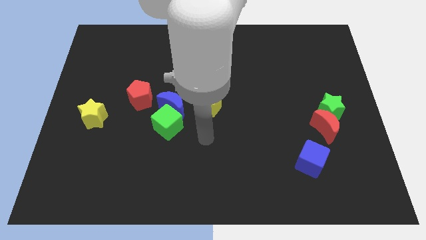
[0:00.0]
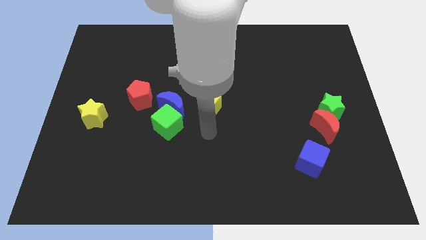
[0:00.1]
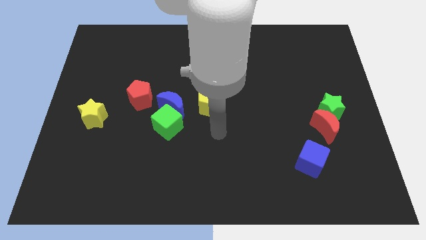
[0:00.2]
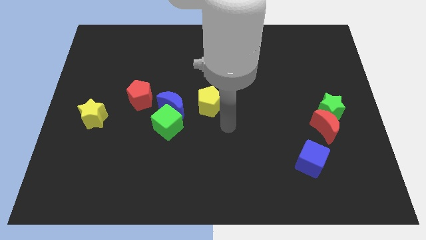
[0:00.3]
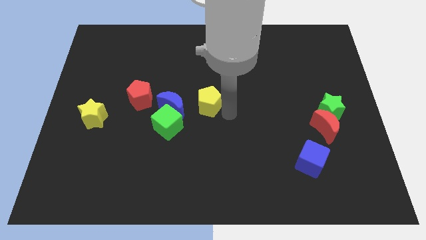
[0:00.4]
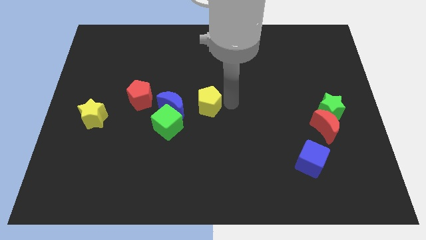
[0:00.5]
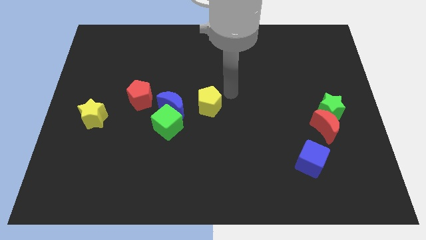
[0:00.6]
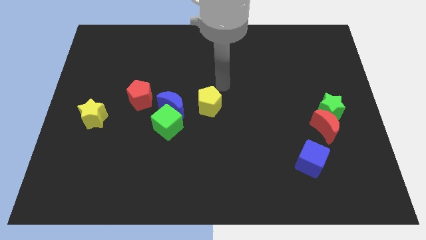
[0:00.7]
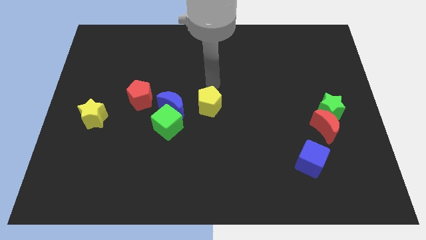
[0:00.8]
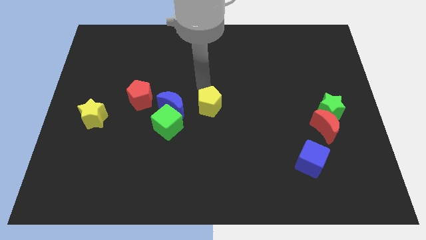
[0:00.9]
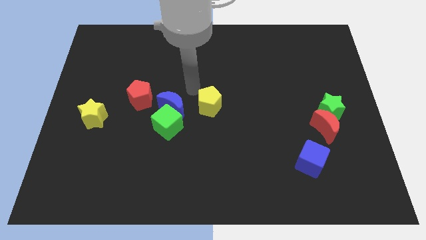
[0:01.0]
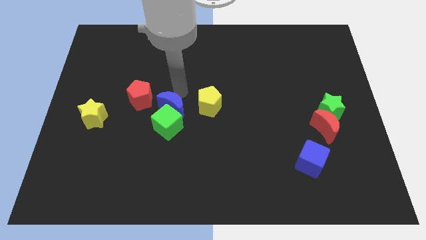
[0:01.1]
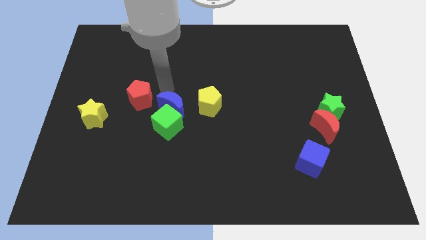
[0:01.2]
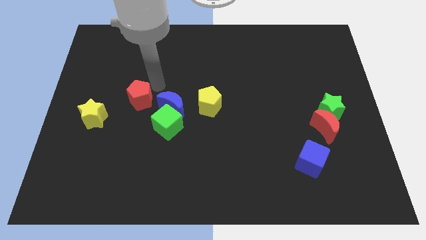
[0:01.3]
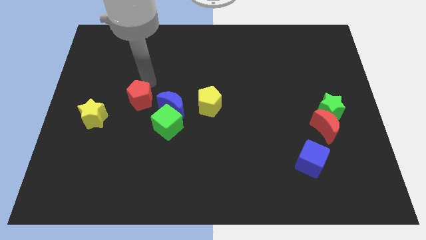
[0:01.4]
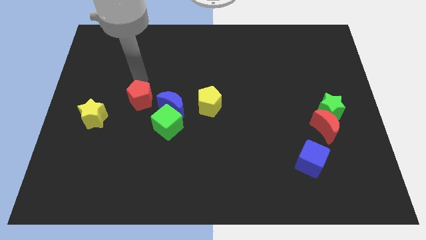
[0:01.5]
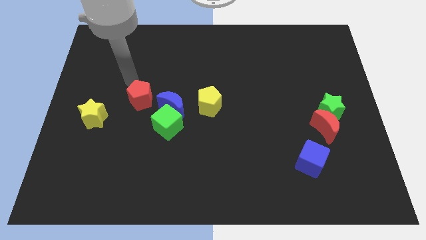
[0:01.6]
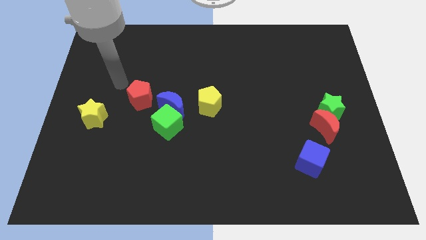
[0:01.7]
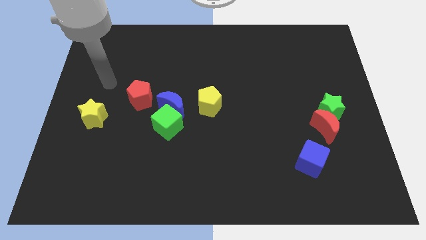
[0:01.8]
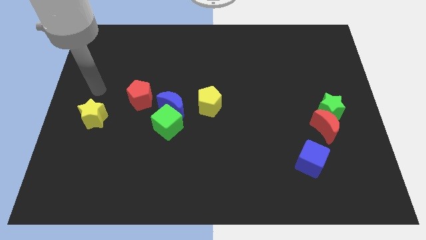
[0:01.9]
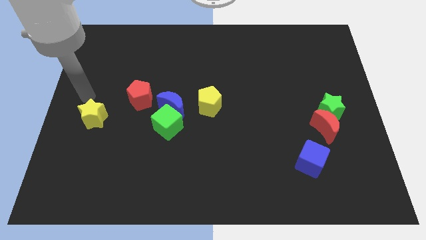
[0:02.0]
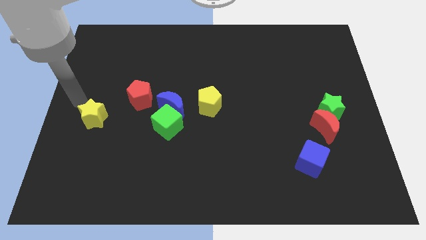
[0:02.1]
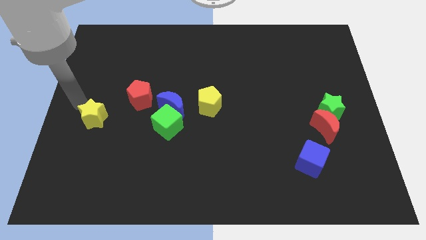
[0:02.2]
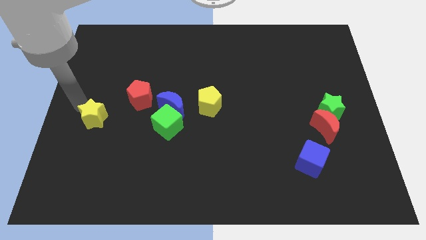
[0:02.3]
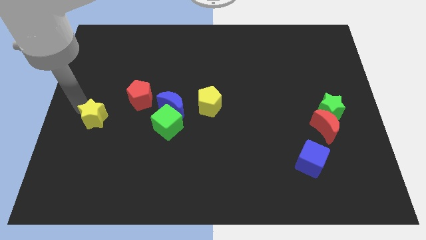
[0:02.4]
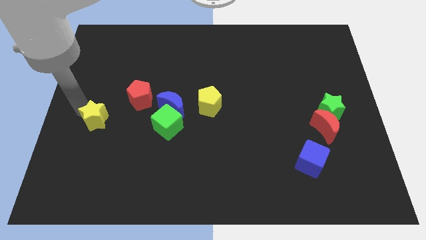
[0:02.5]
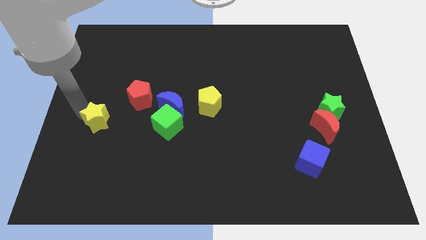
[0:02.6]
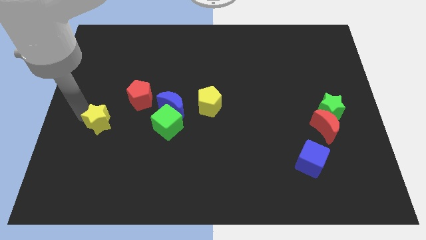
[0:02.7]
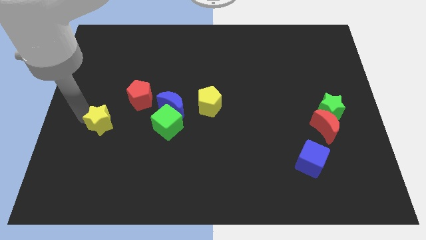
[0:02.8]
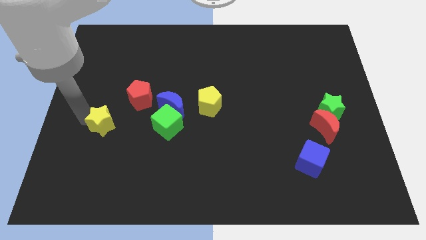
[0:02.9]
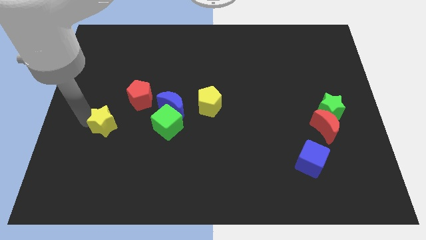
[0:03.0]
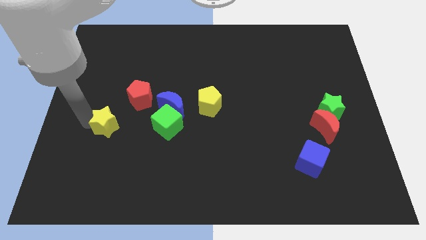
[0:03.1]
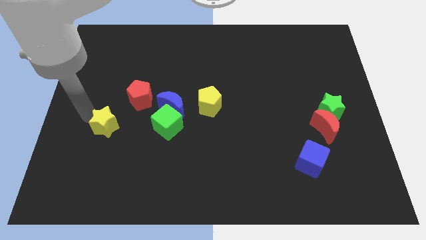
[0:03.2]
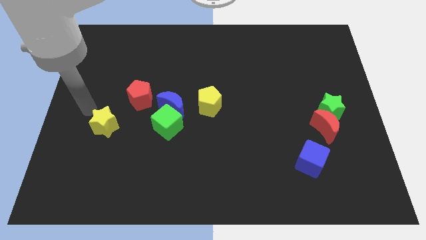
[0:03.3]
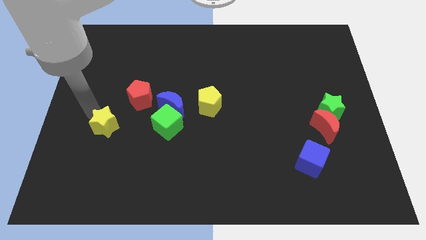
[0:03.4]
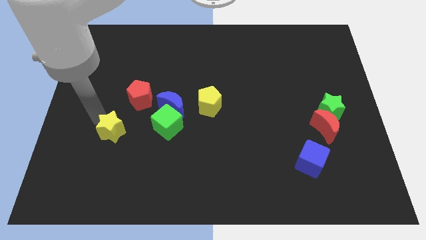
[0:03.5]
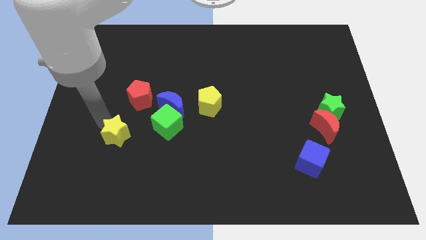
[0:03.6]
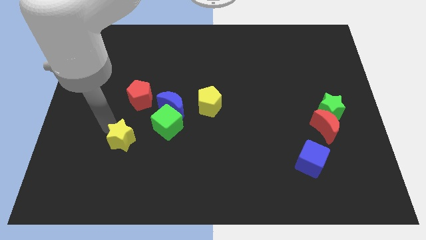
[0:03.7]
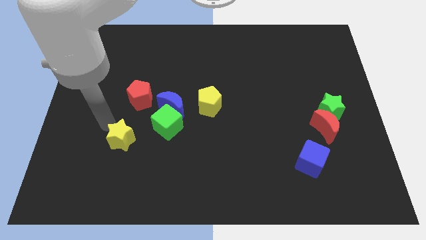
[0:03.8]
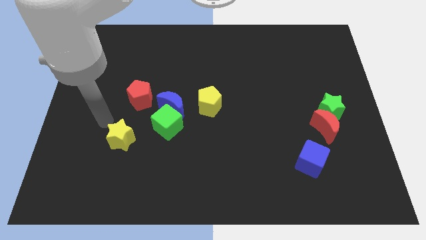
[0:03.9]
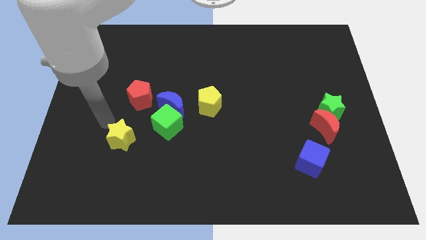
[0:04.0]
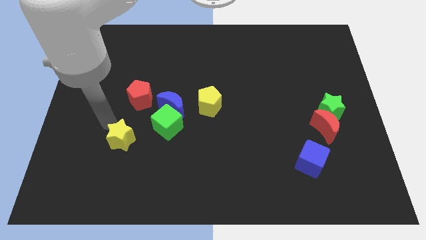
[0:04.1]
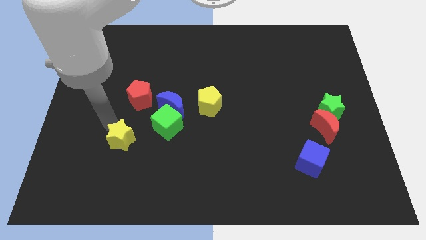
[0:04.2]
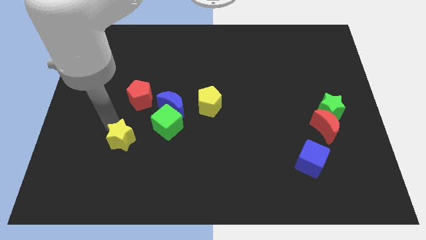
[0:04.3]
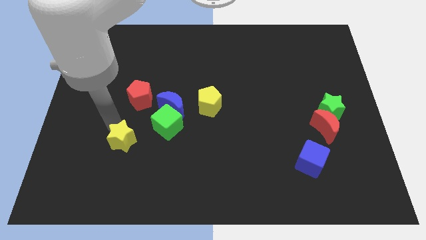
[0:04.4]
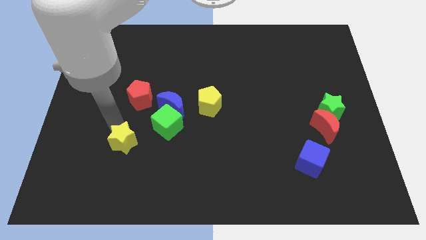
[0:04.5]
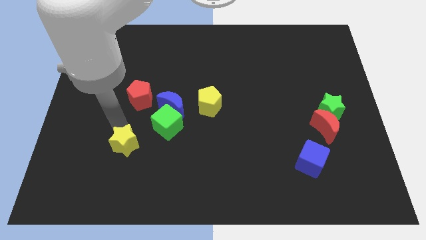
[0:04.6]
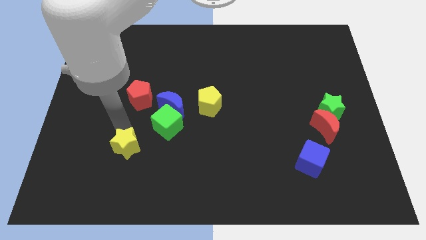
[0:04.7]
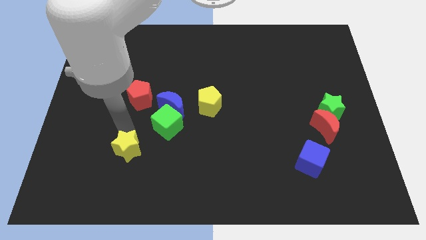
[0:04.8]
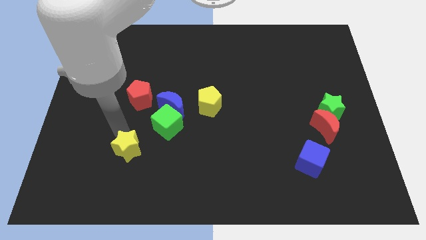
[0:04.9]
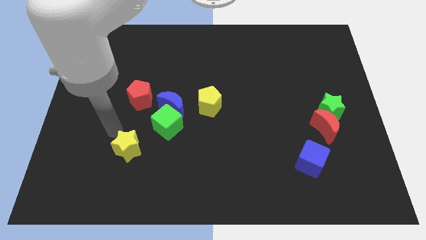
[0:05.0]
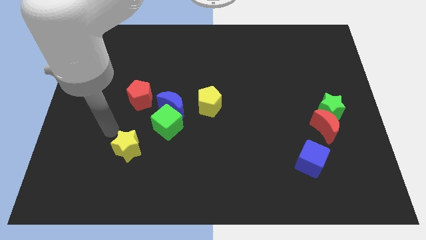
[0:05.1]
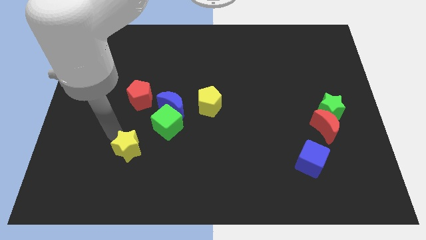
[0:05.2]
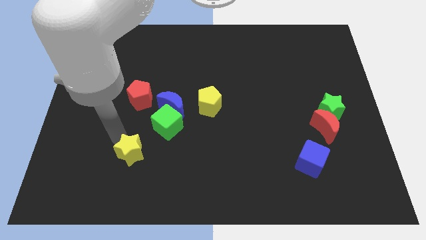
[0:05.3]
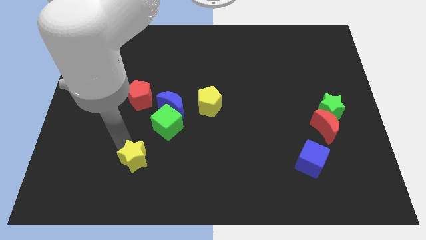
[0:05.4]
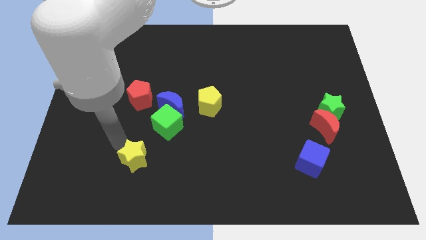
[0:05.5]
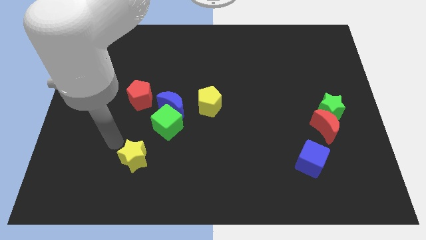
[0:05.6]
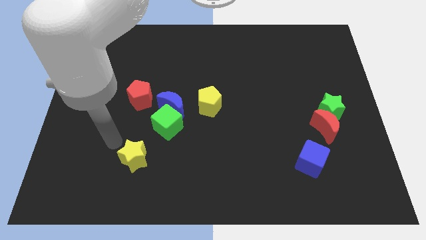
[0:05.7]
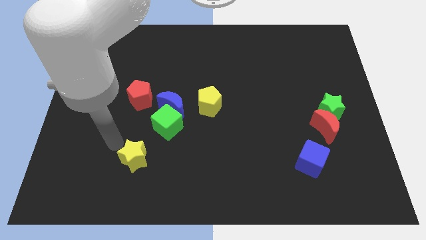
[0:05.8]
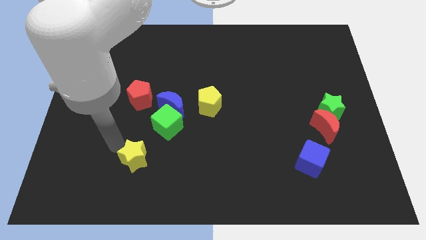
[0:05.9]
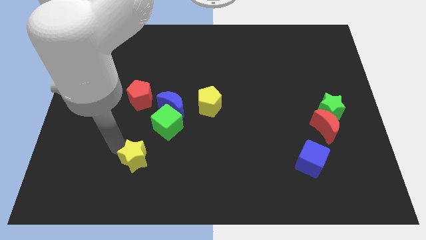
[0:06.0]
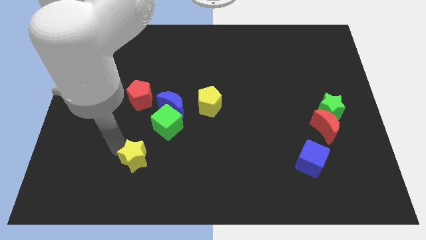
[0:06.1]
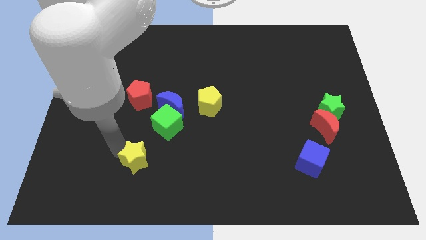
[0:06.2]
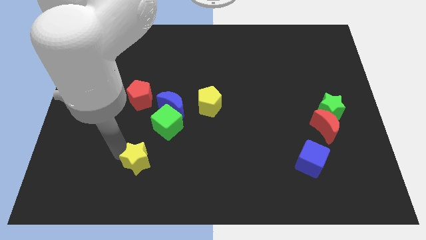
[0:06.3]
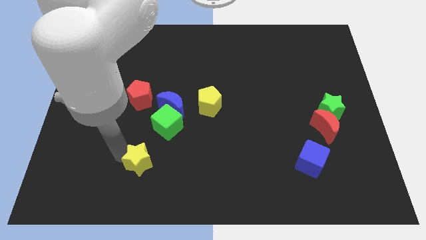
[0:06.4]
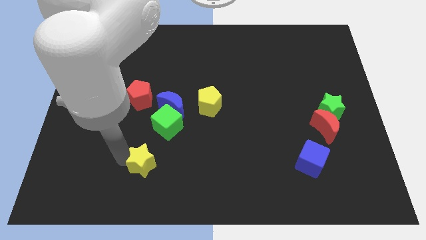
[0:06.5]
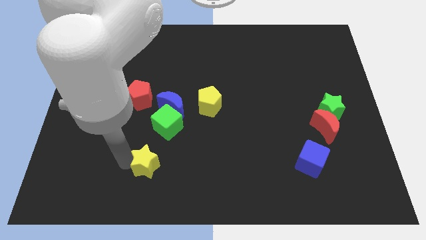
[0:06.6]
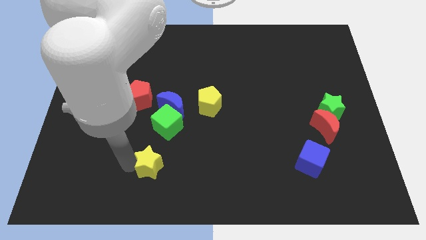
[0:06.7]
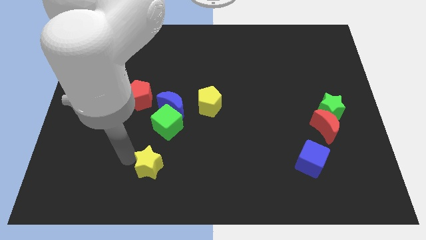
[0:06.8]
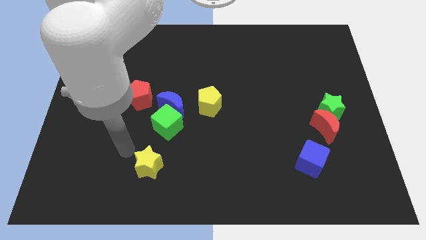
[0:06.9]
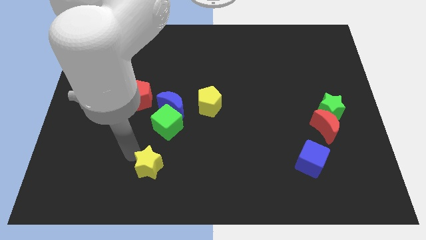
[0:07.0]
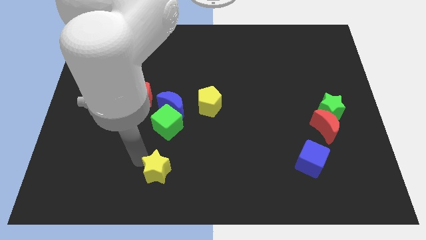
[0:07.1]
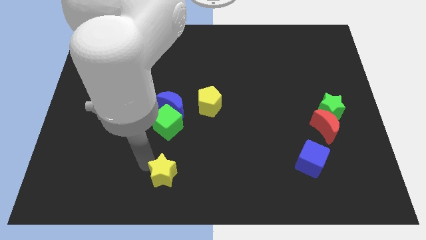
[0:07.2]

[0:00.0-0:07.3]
move the yellow star to the bottom side
